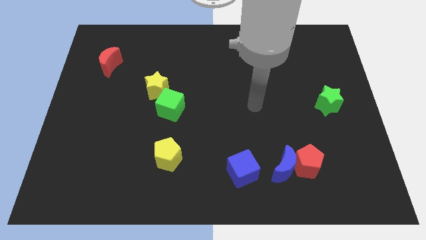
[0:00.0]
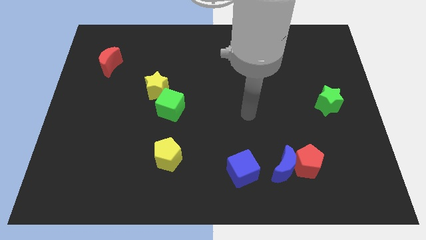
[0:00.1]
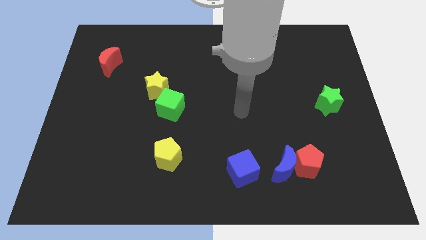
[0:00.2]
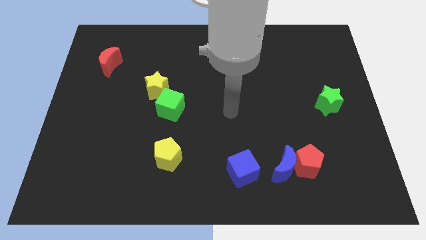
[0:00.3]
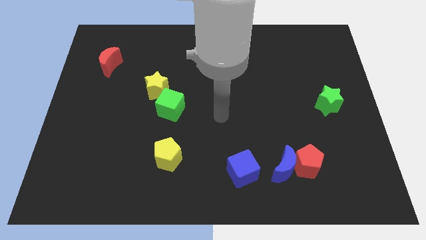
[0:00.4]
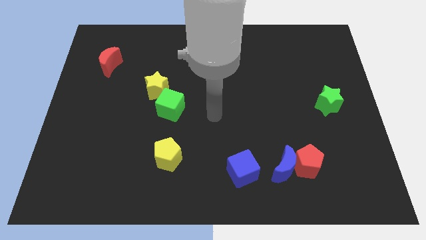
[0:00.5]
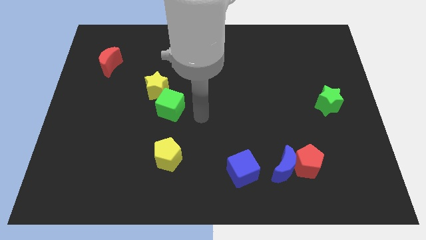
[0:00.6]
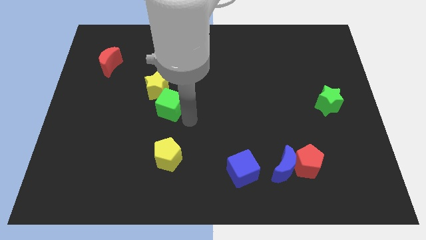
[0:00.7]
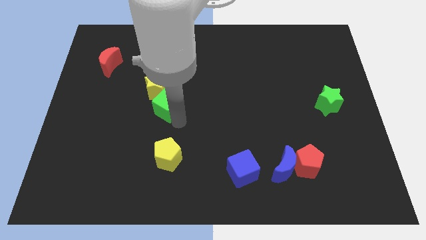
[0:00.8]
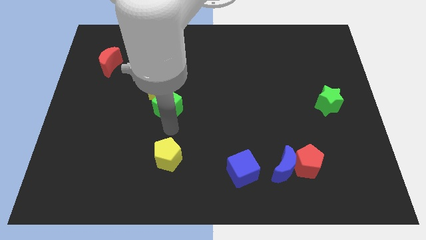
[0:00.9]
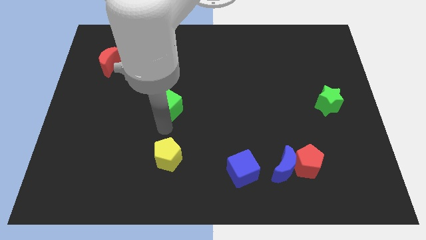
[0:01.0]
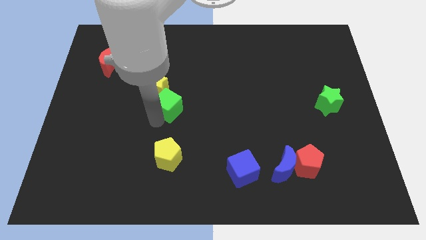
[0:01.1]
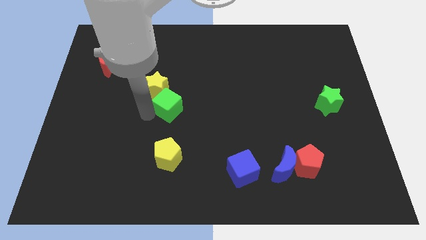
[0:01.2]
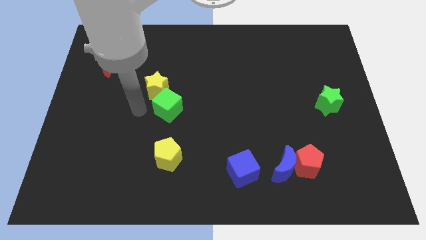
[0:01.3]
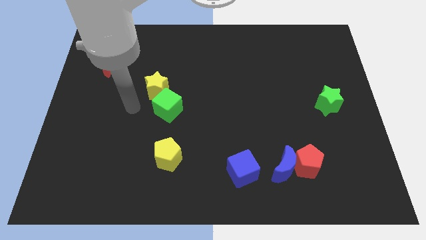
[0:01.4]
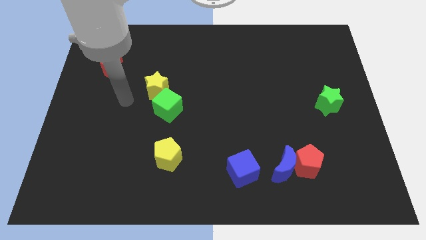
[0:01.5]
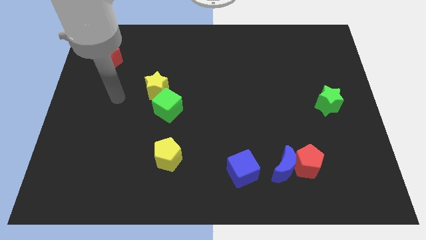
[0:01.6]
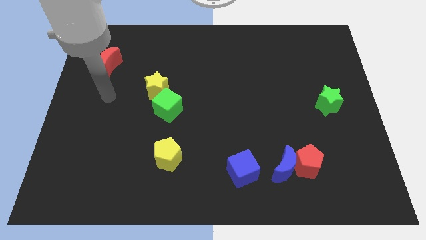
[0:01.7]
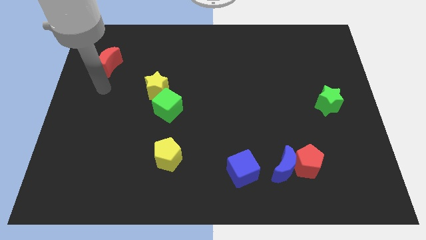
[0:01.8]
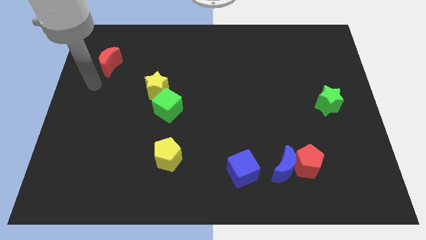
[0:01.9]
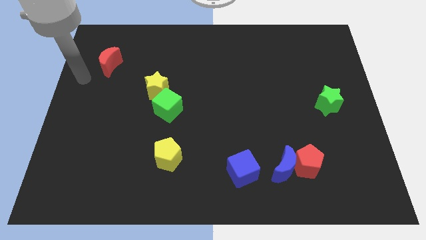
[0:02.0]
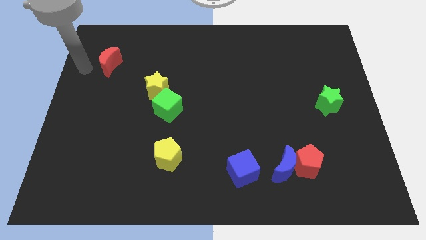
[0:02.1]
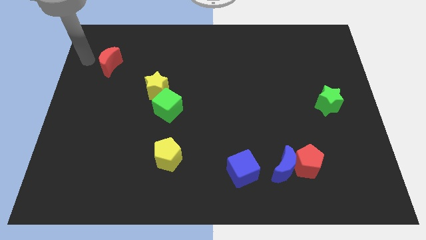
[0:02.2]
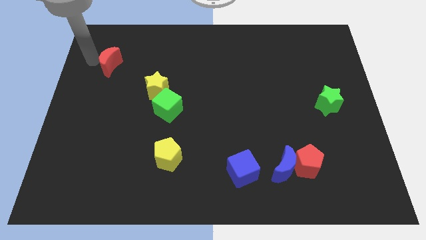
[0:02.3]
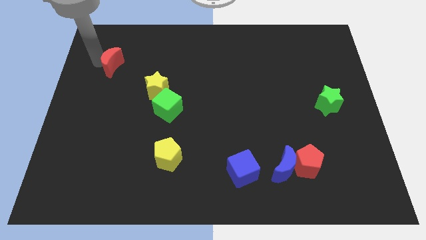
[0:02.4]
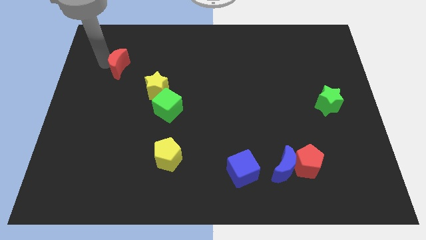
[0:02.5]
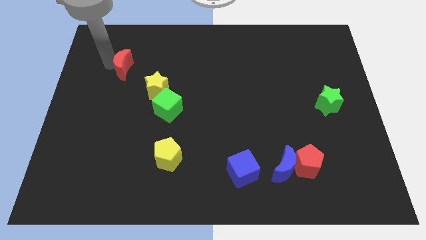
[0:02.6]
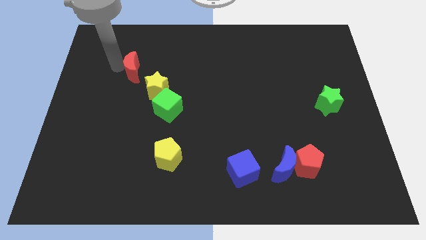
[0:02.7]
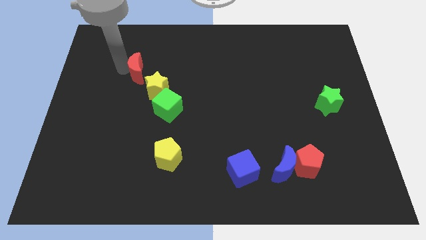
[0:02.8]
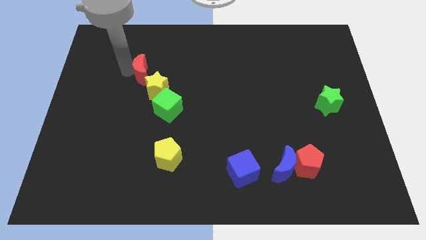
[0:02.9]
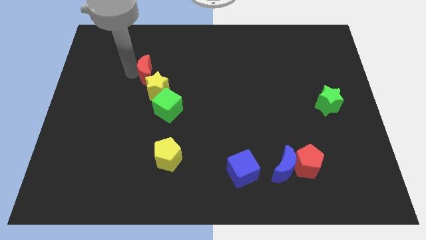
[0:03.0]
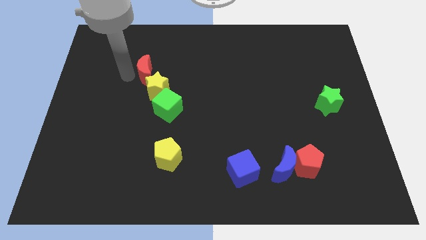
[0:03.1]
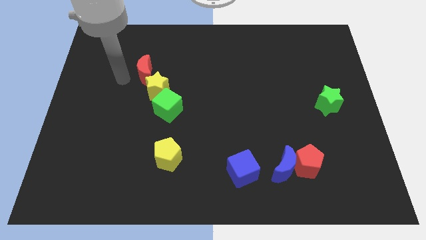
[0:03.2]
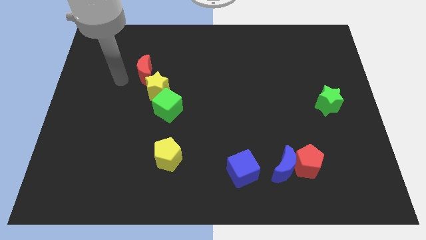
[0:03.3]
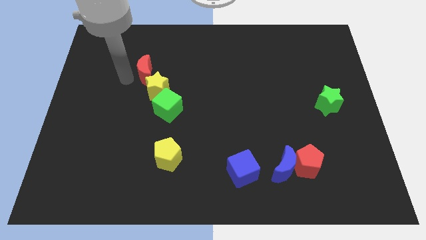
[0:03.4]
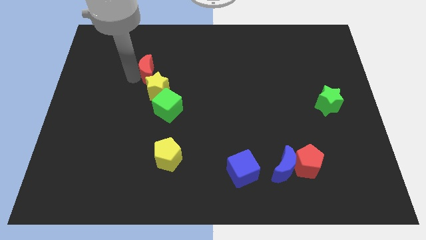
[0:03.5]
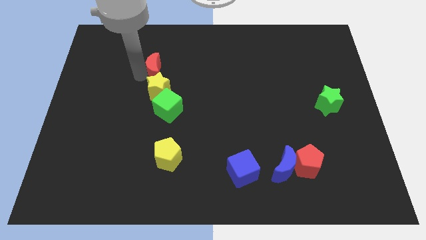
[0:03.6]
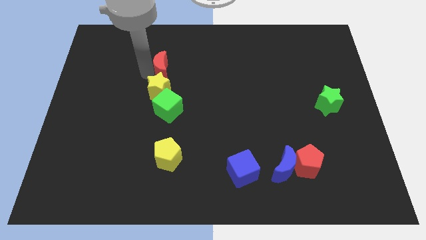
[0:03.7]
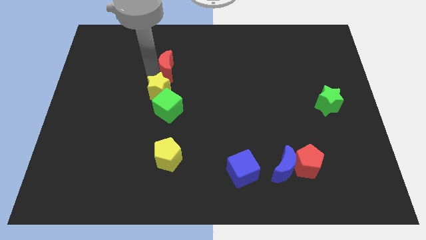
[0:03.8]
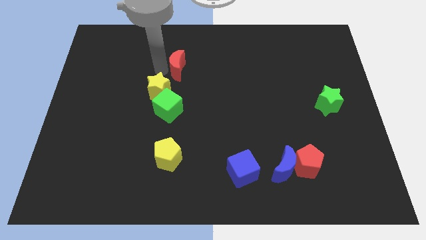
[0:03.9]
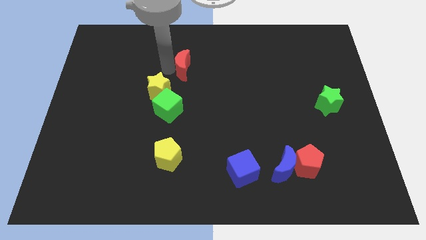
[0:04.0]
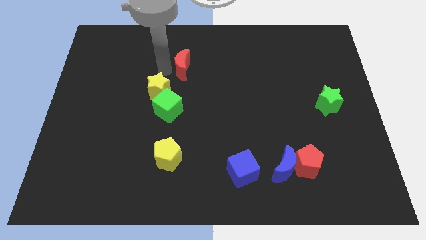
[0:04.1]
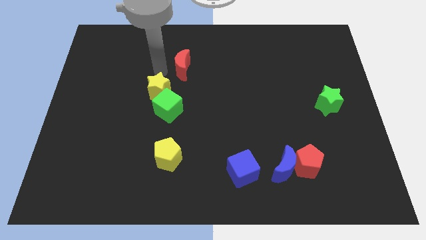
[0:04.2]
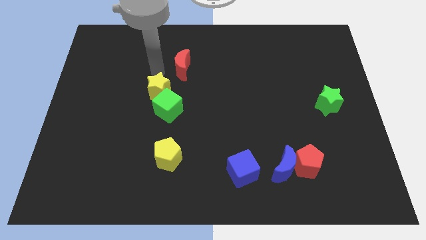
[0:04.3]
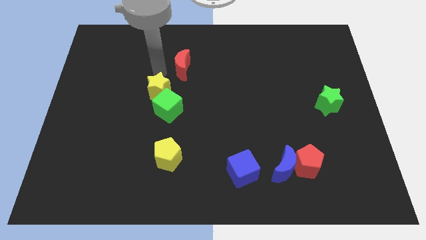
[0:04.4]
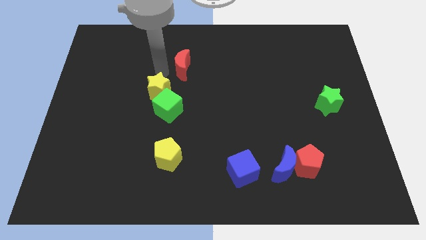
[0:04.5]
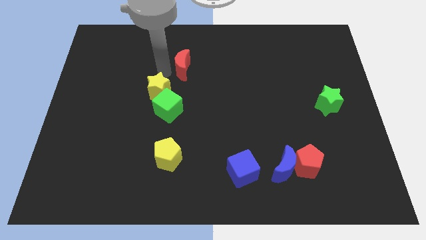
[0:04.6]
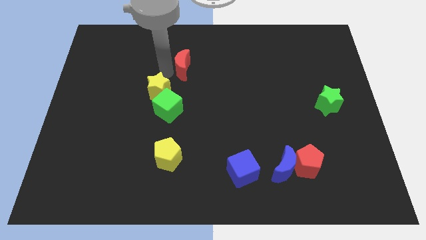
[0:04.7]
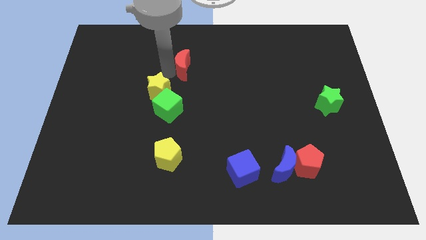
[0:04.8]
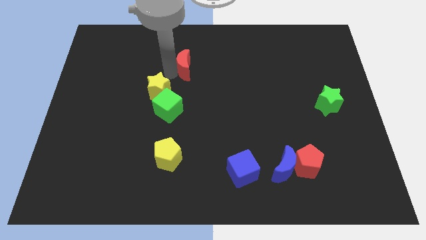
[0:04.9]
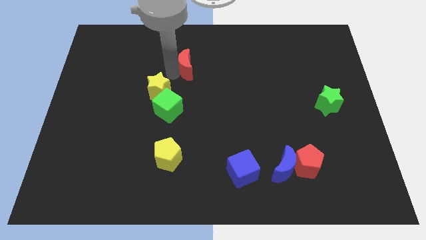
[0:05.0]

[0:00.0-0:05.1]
slide the red moon right

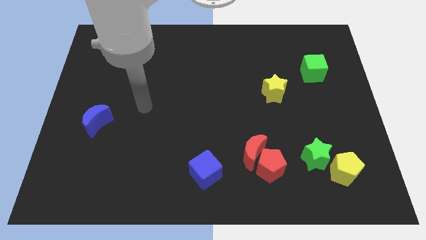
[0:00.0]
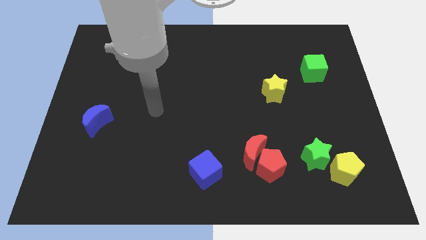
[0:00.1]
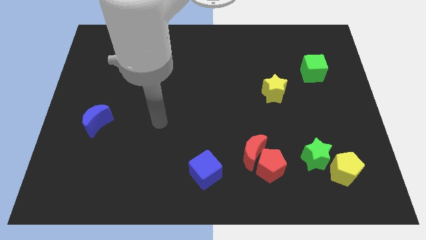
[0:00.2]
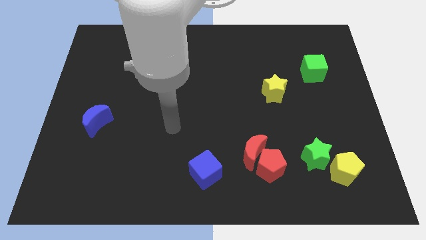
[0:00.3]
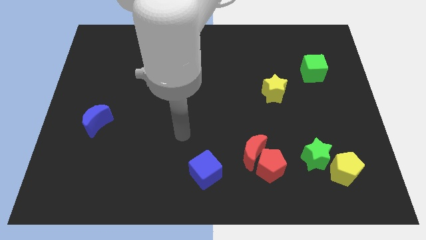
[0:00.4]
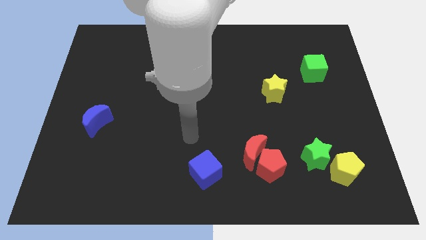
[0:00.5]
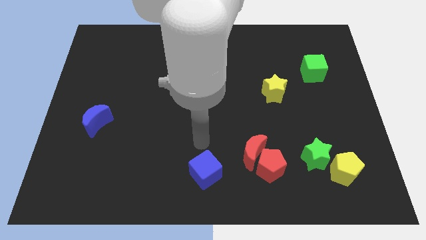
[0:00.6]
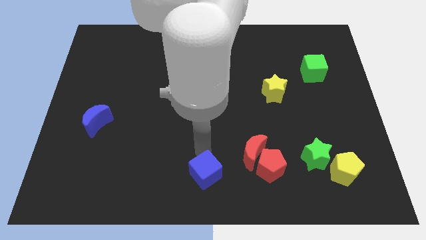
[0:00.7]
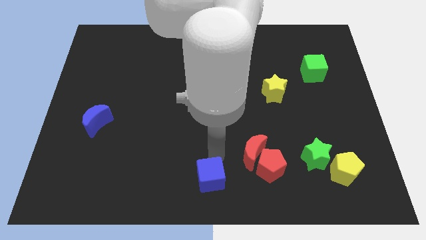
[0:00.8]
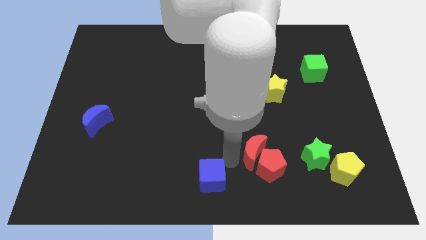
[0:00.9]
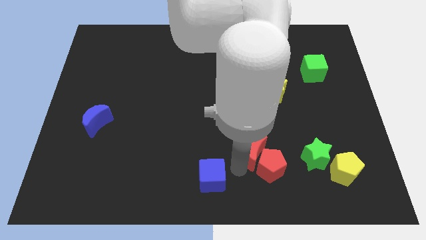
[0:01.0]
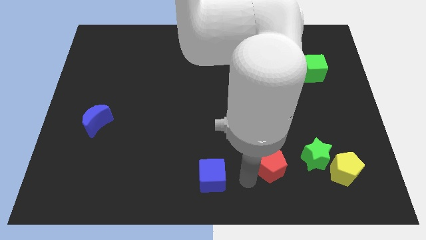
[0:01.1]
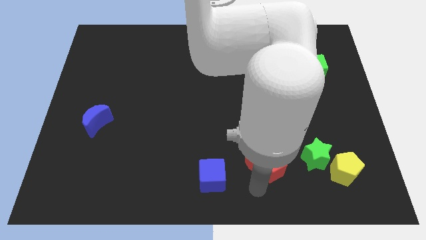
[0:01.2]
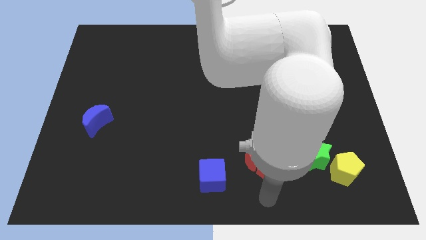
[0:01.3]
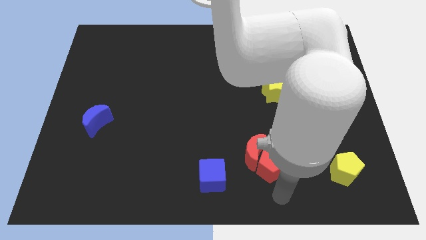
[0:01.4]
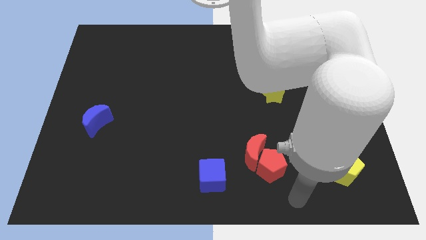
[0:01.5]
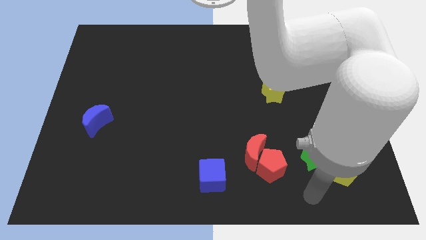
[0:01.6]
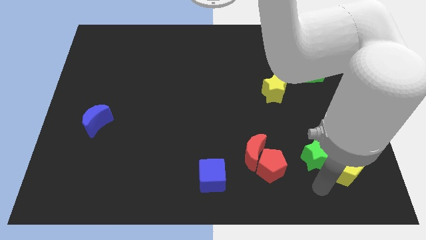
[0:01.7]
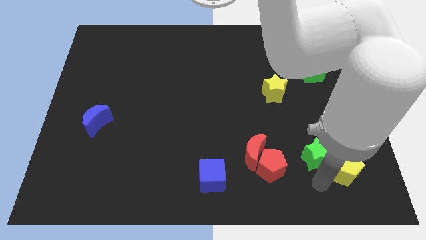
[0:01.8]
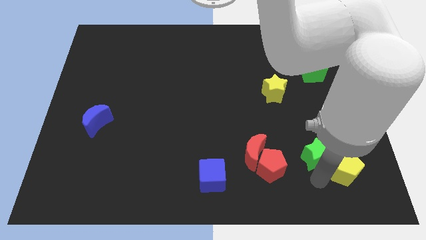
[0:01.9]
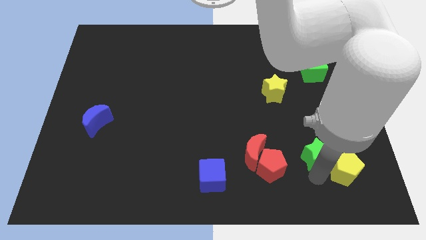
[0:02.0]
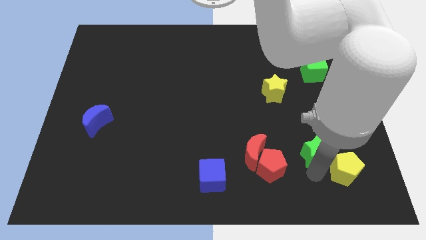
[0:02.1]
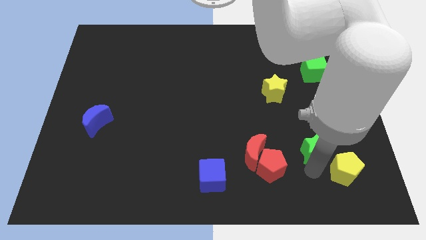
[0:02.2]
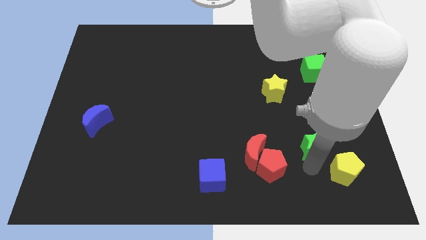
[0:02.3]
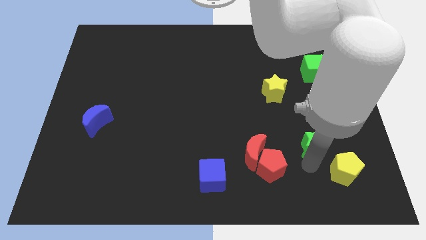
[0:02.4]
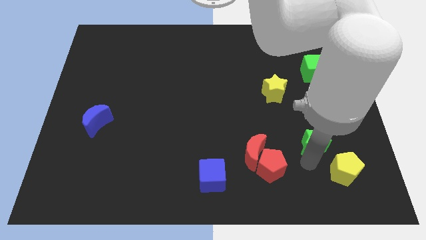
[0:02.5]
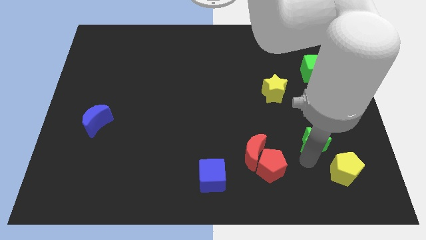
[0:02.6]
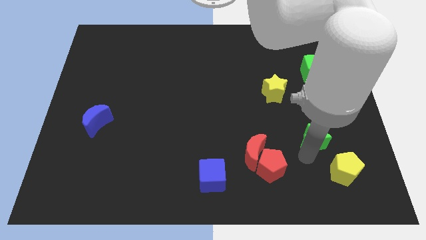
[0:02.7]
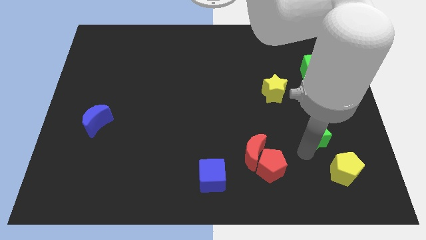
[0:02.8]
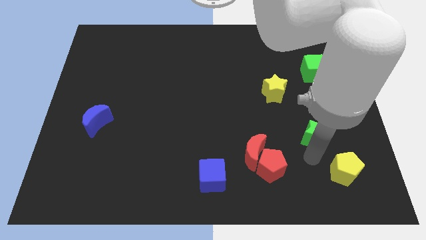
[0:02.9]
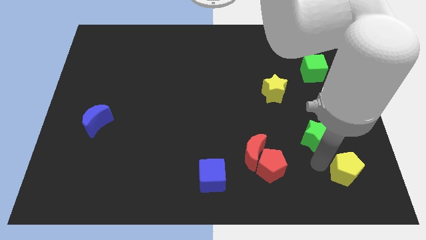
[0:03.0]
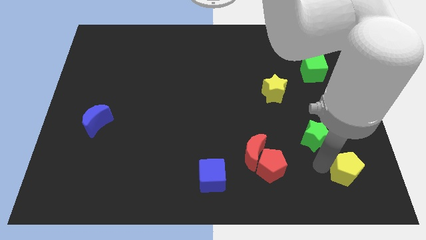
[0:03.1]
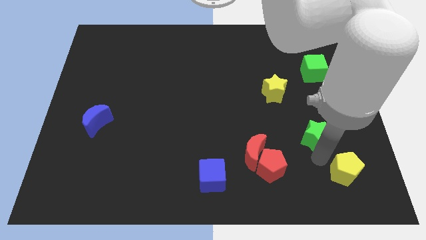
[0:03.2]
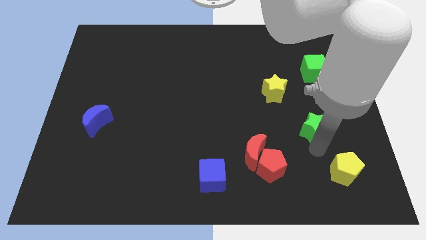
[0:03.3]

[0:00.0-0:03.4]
slide the green star upwards slightly
